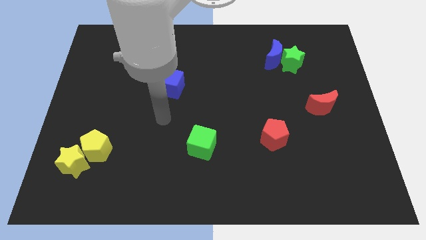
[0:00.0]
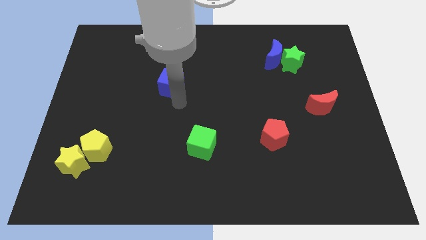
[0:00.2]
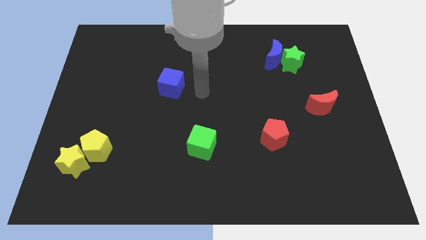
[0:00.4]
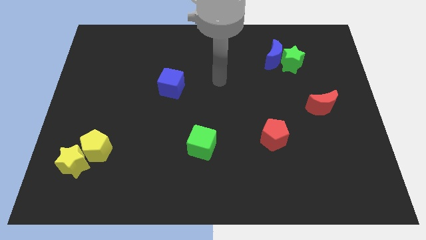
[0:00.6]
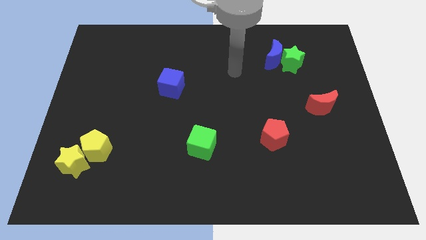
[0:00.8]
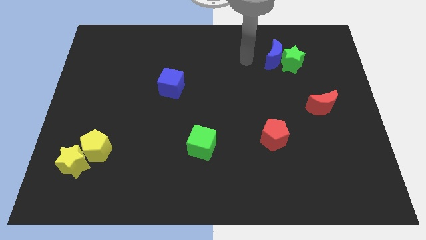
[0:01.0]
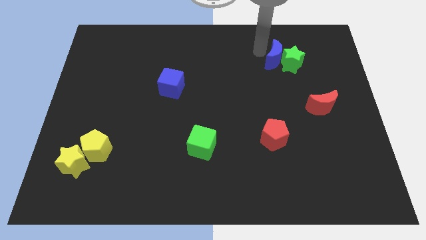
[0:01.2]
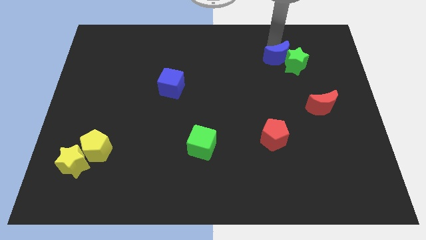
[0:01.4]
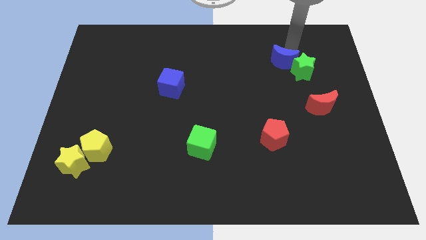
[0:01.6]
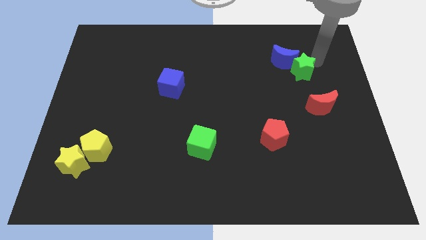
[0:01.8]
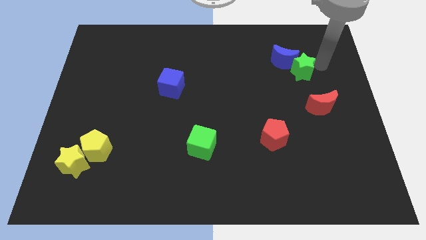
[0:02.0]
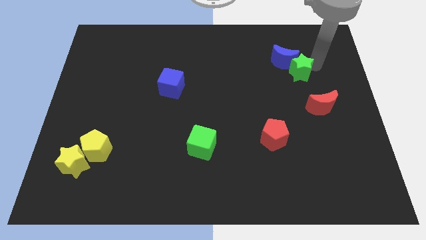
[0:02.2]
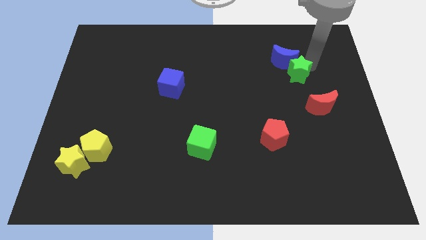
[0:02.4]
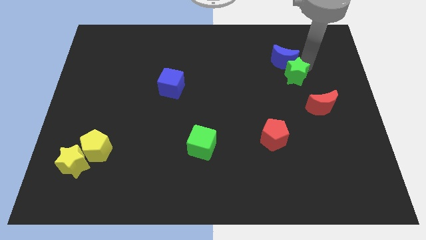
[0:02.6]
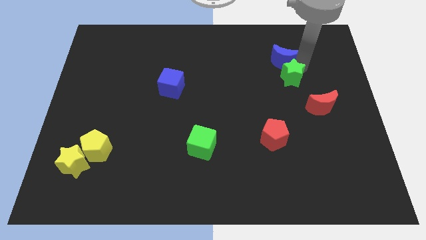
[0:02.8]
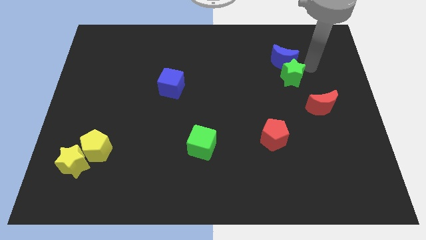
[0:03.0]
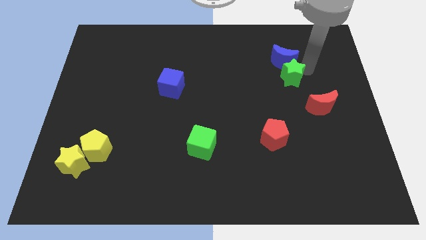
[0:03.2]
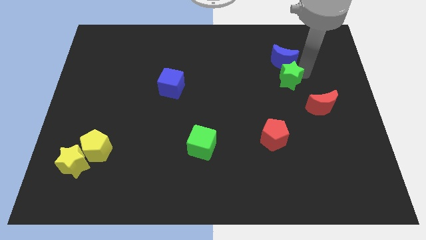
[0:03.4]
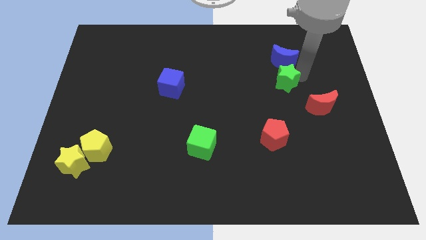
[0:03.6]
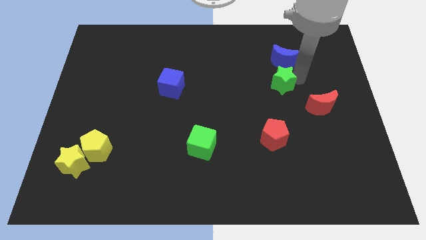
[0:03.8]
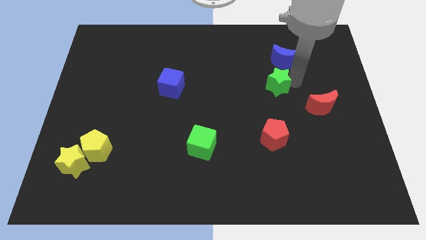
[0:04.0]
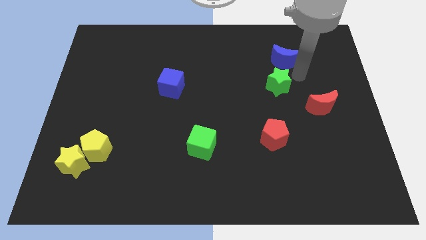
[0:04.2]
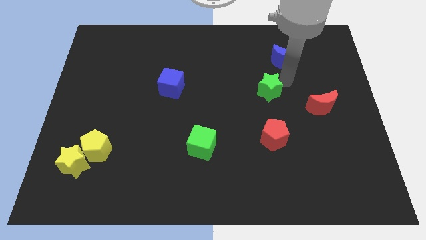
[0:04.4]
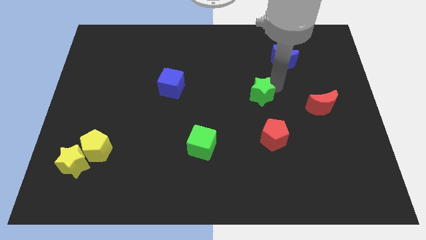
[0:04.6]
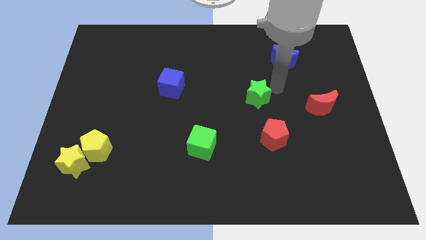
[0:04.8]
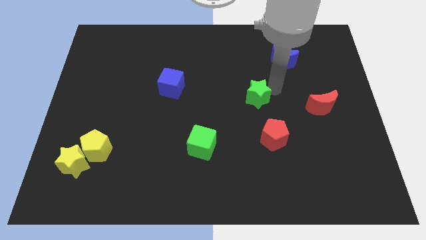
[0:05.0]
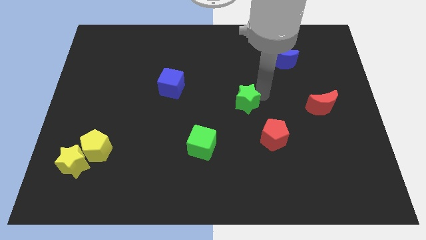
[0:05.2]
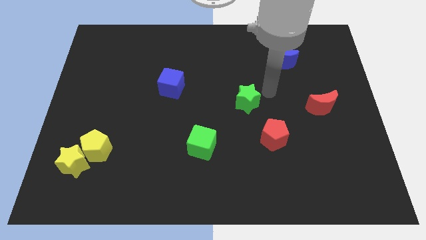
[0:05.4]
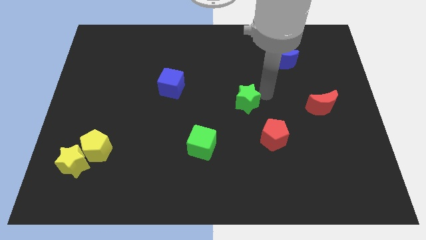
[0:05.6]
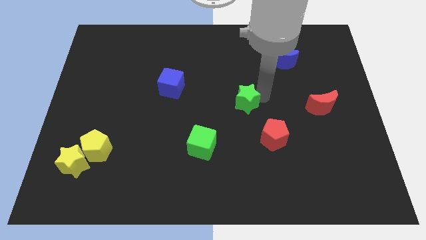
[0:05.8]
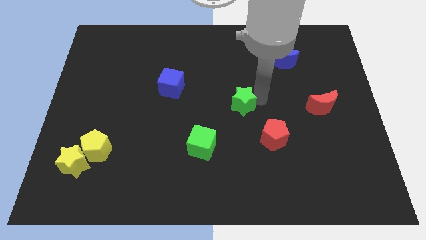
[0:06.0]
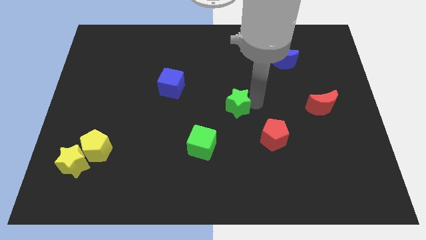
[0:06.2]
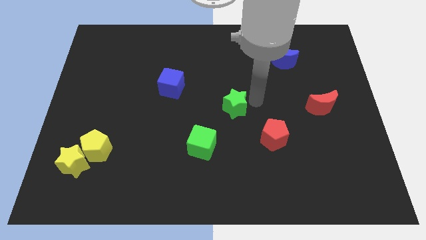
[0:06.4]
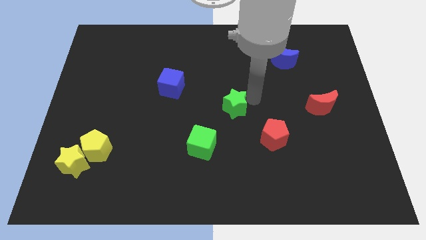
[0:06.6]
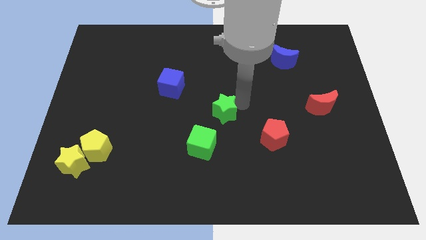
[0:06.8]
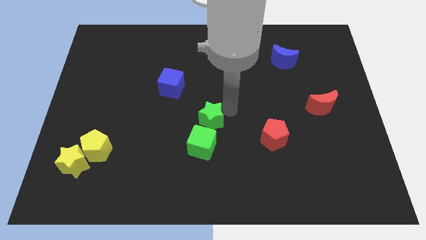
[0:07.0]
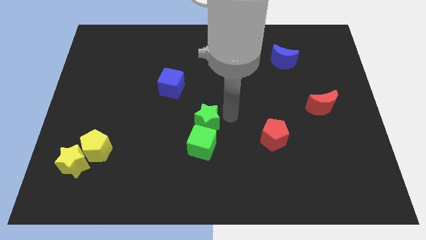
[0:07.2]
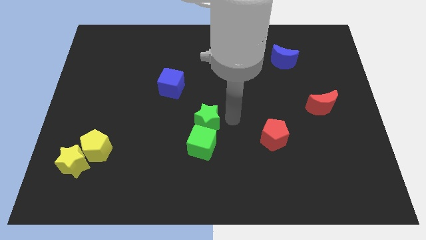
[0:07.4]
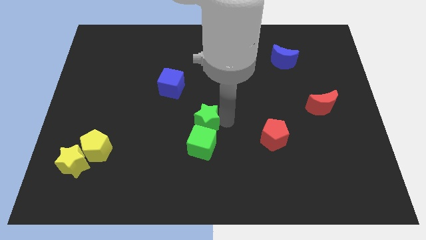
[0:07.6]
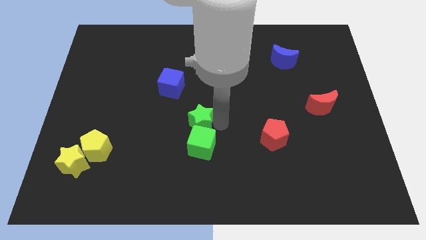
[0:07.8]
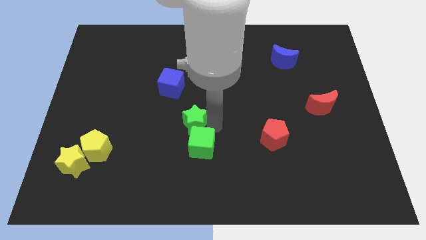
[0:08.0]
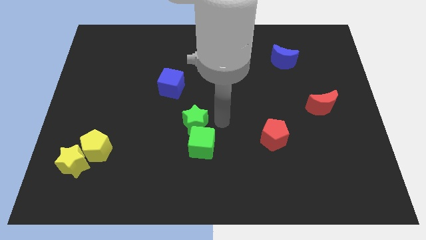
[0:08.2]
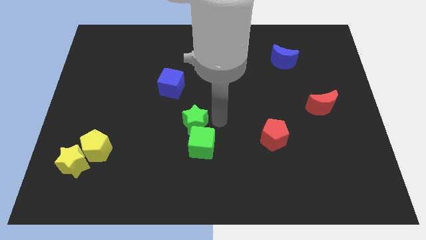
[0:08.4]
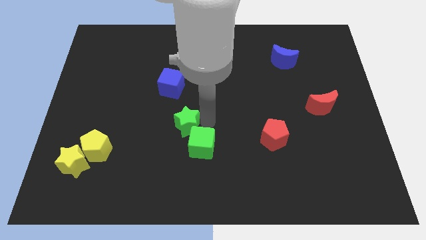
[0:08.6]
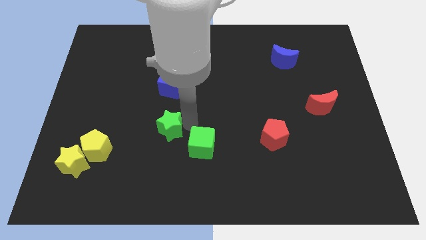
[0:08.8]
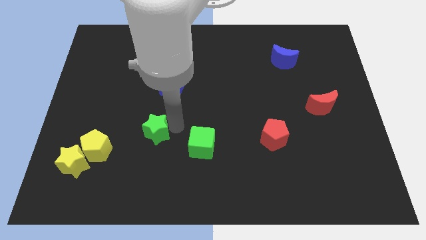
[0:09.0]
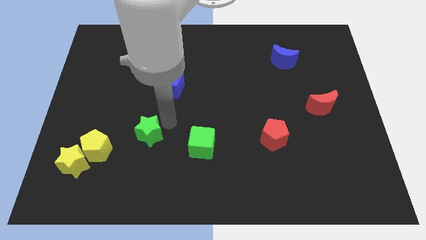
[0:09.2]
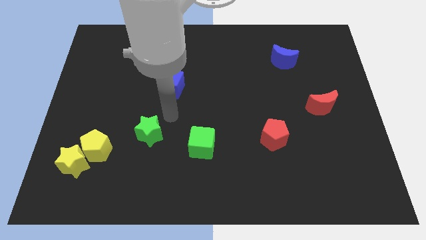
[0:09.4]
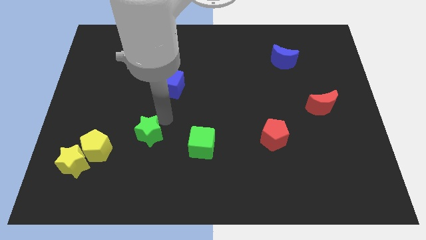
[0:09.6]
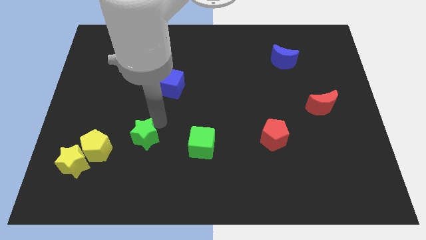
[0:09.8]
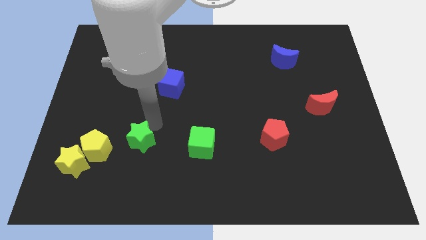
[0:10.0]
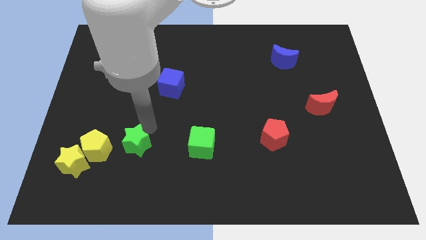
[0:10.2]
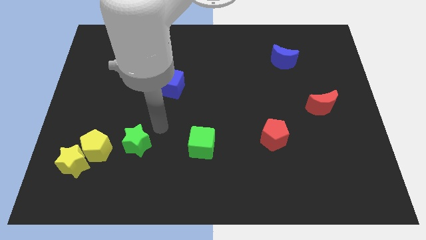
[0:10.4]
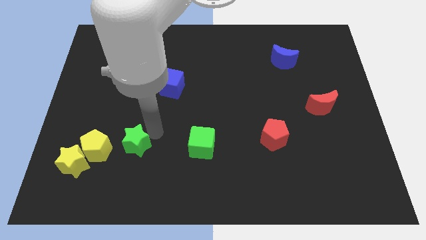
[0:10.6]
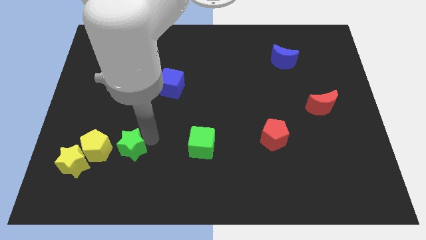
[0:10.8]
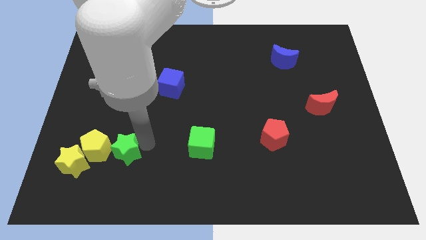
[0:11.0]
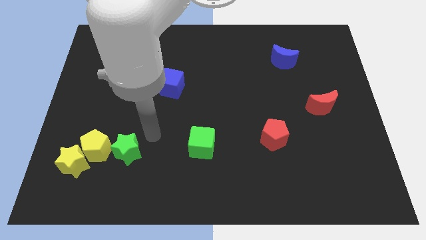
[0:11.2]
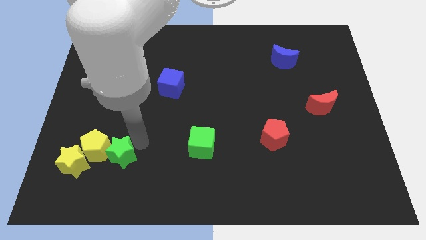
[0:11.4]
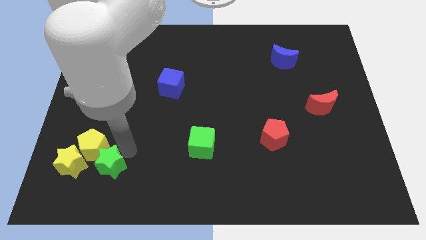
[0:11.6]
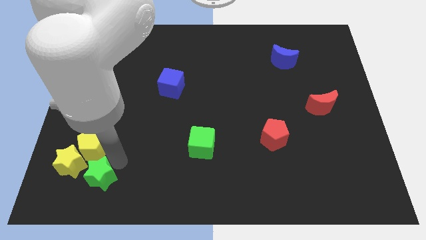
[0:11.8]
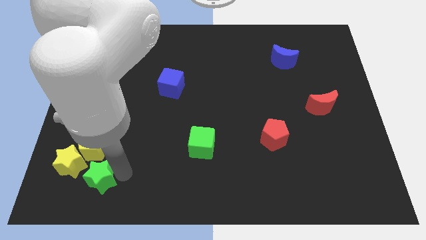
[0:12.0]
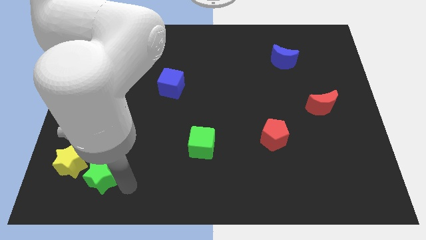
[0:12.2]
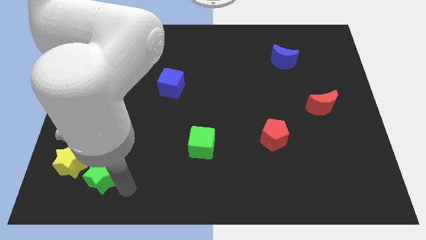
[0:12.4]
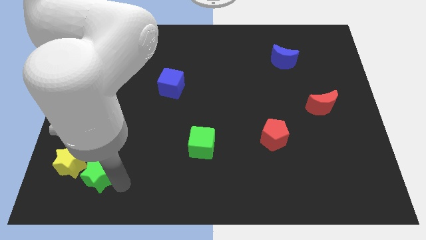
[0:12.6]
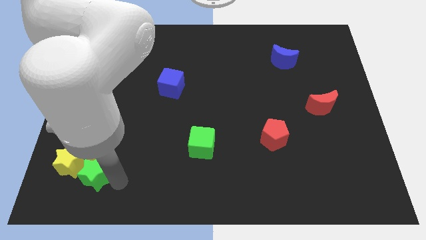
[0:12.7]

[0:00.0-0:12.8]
slide the green star to the yellow star

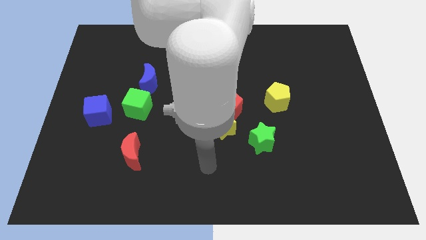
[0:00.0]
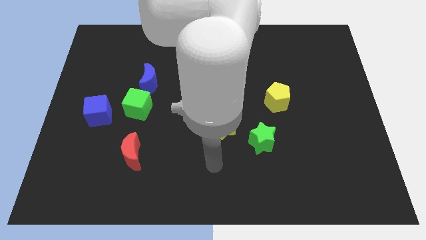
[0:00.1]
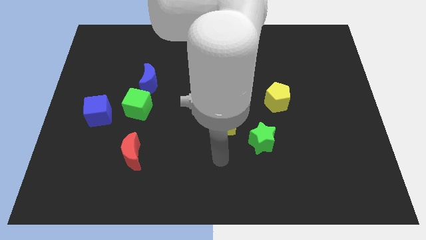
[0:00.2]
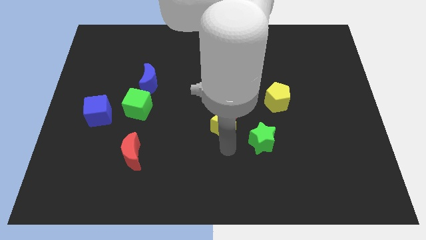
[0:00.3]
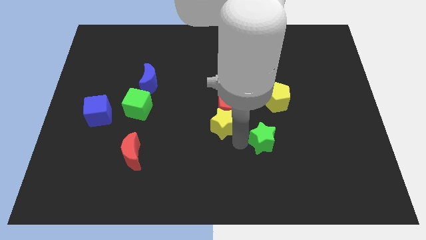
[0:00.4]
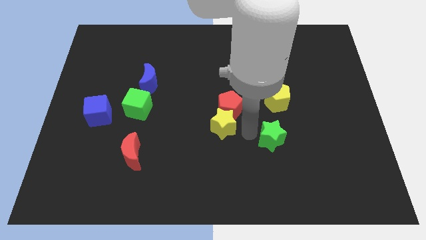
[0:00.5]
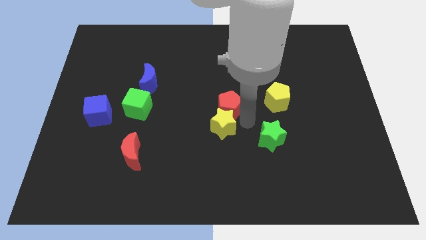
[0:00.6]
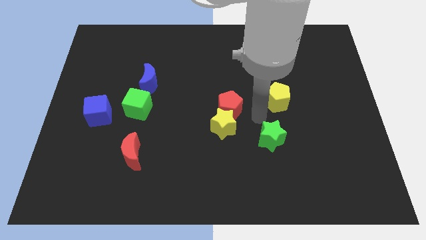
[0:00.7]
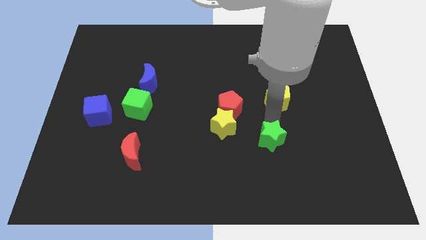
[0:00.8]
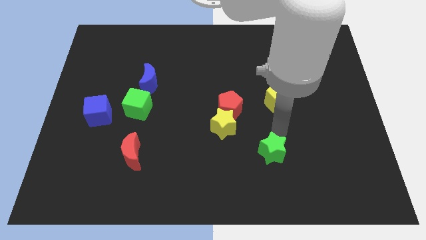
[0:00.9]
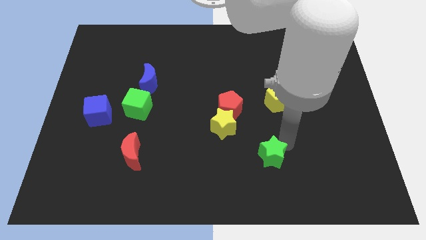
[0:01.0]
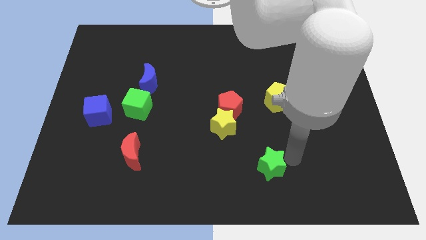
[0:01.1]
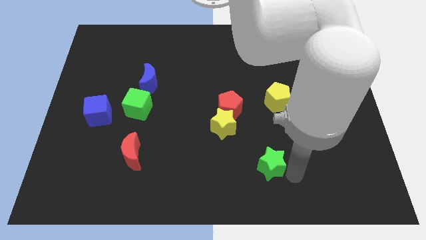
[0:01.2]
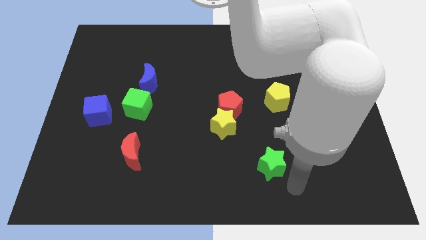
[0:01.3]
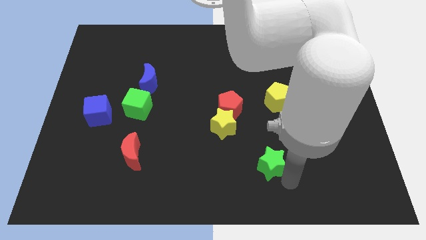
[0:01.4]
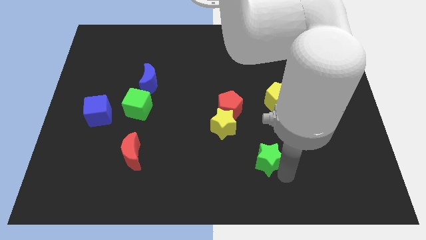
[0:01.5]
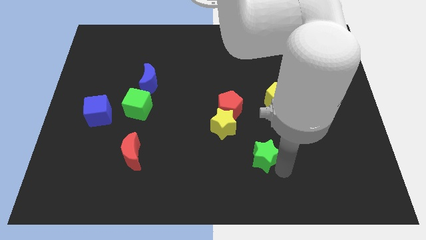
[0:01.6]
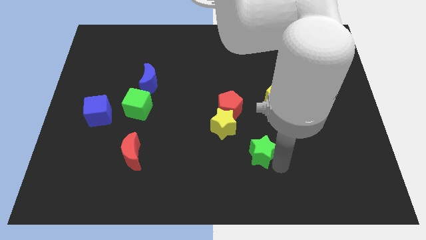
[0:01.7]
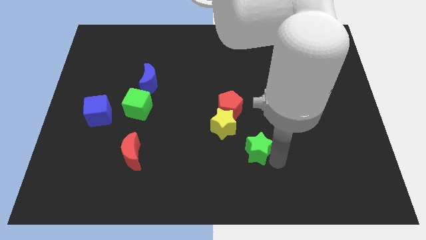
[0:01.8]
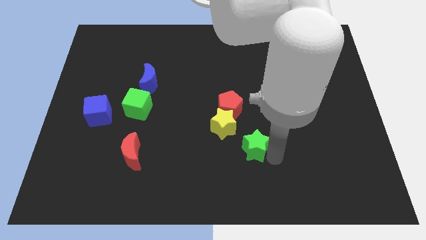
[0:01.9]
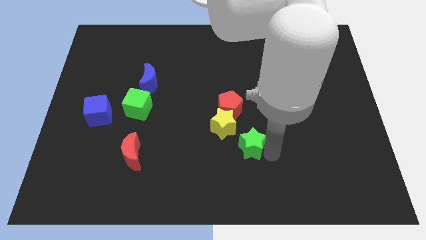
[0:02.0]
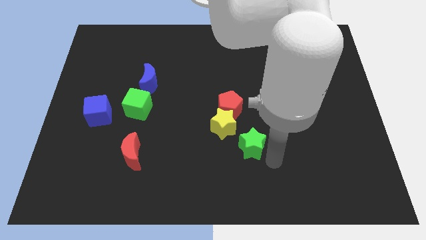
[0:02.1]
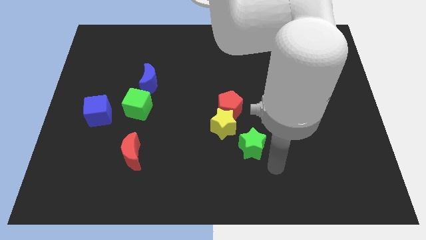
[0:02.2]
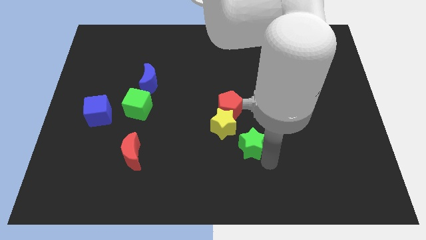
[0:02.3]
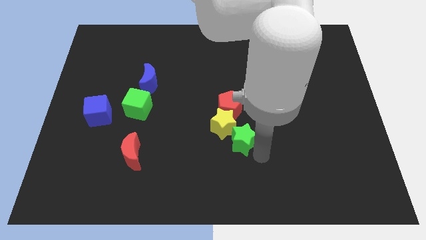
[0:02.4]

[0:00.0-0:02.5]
push the green star close to the yellow star
